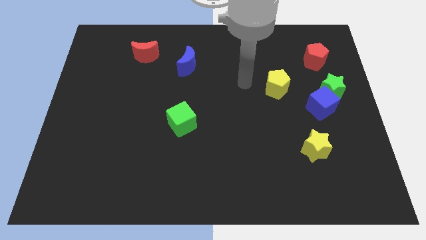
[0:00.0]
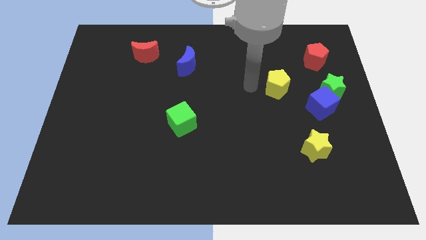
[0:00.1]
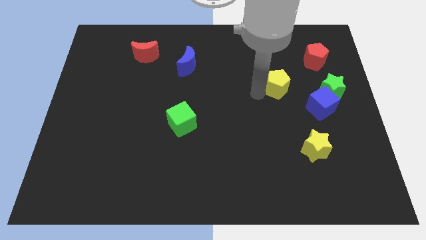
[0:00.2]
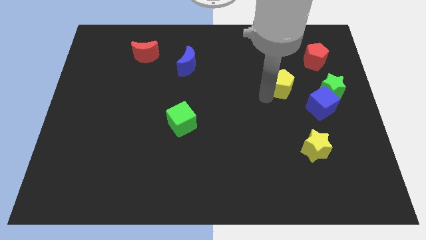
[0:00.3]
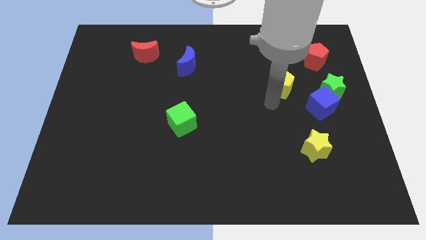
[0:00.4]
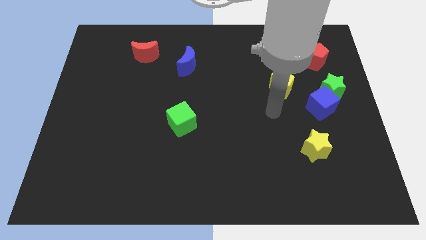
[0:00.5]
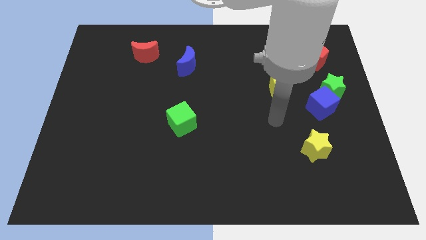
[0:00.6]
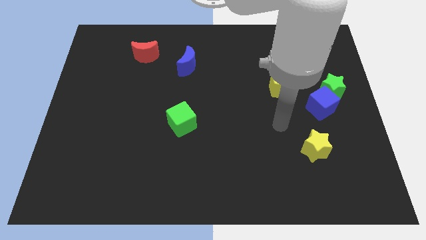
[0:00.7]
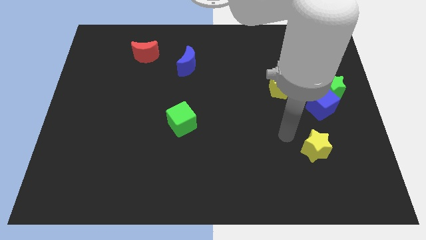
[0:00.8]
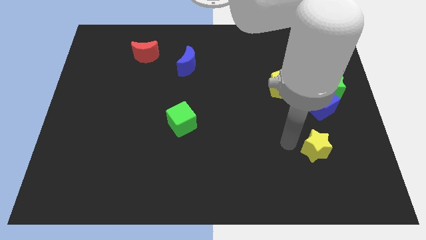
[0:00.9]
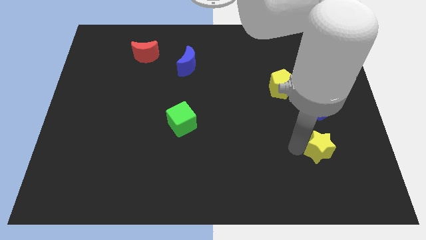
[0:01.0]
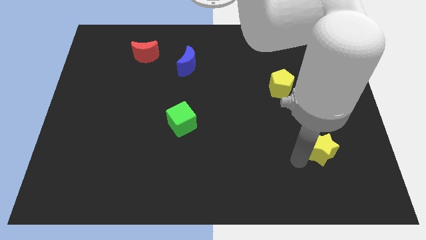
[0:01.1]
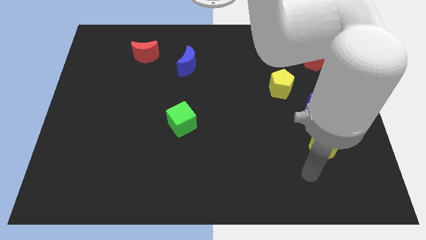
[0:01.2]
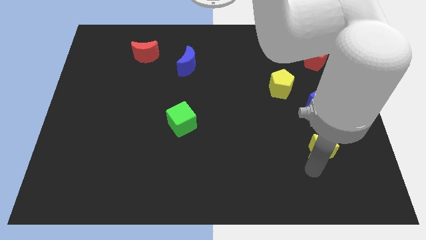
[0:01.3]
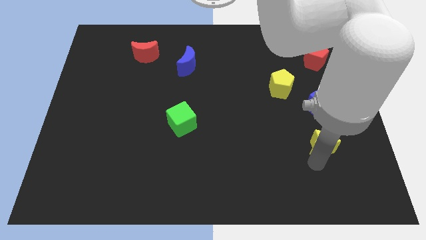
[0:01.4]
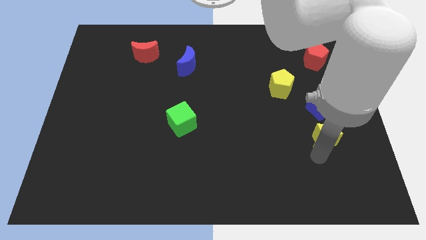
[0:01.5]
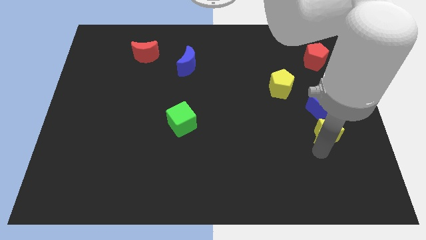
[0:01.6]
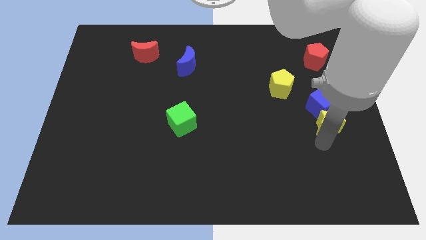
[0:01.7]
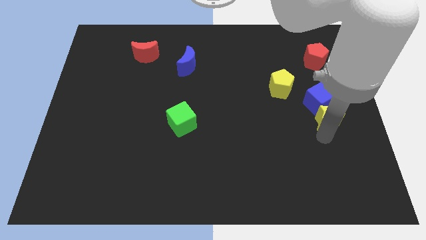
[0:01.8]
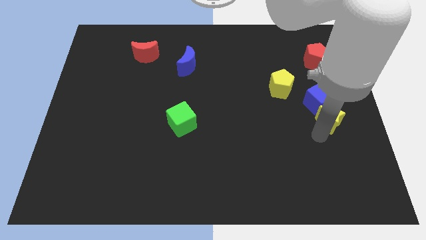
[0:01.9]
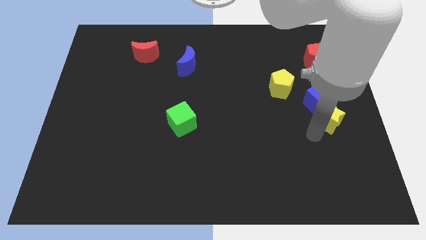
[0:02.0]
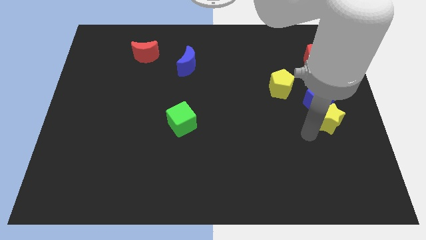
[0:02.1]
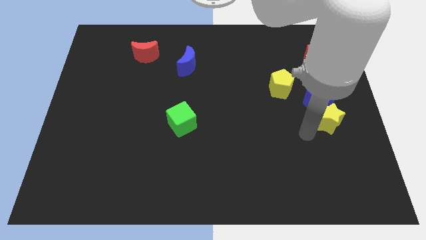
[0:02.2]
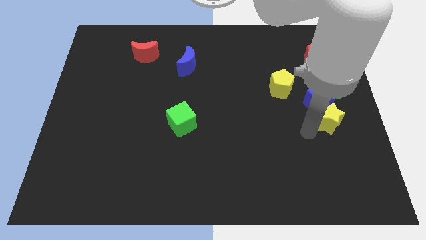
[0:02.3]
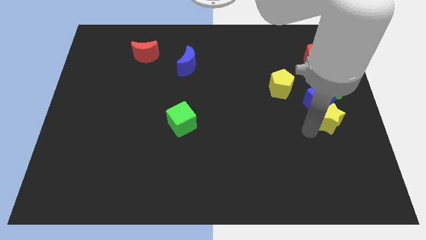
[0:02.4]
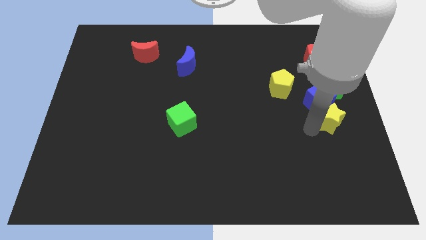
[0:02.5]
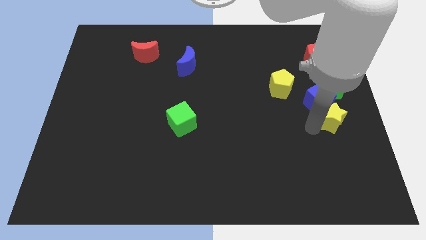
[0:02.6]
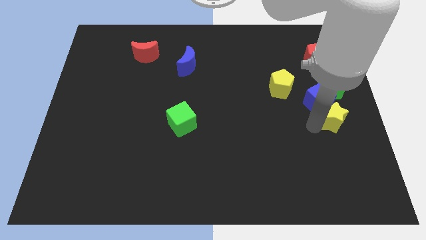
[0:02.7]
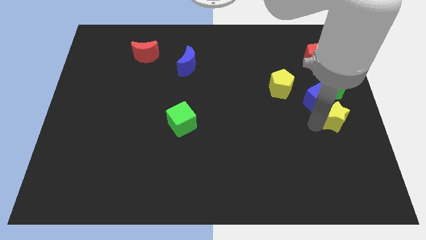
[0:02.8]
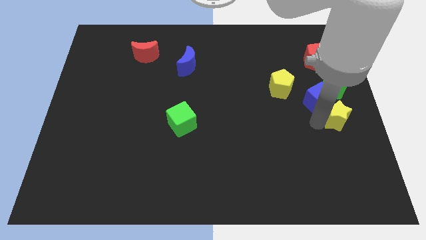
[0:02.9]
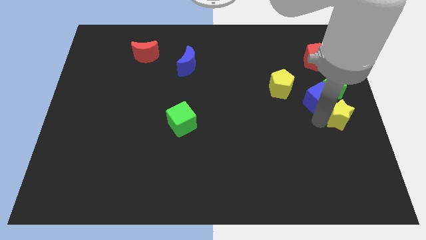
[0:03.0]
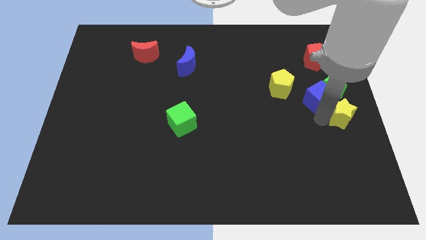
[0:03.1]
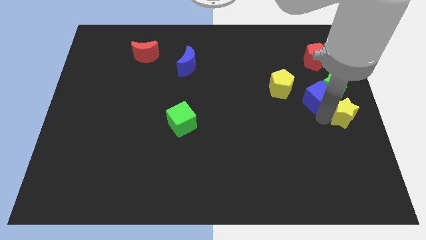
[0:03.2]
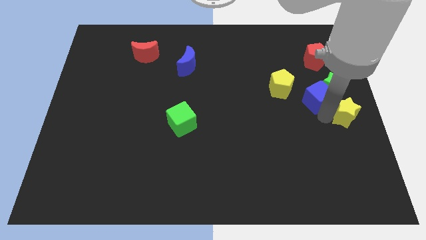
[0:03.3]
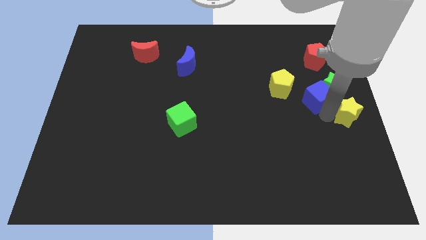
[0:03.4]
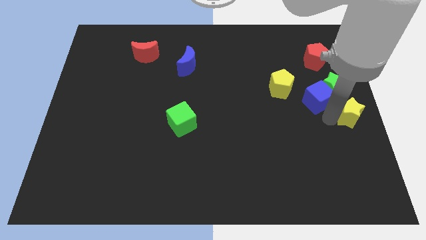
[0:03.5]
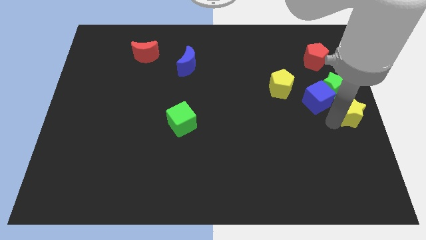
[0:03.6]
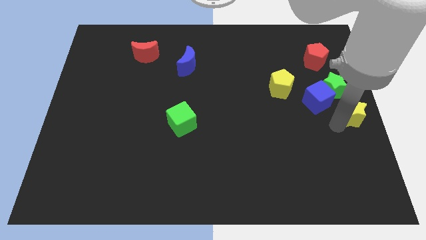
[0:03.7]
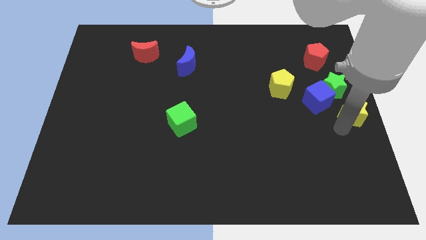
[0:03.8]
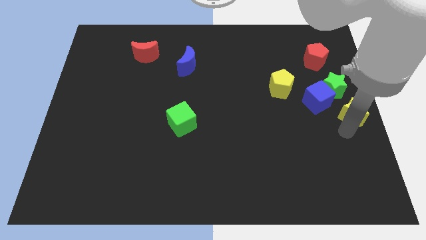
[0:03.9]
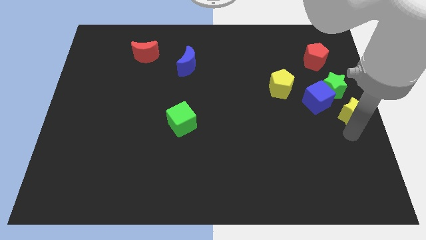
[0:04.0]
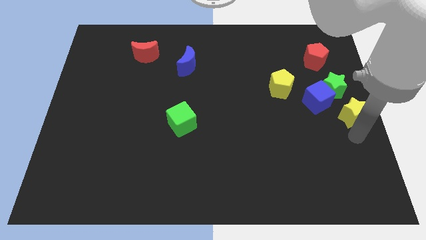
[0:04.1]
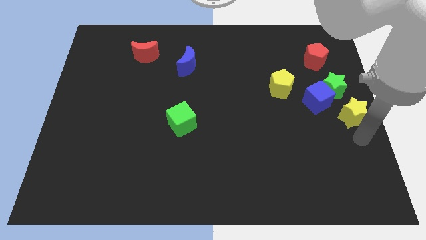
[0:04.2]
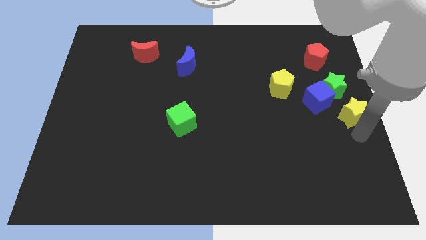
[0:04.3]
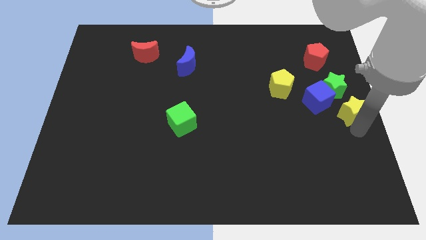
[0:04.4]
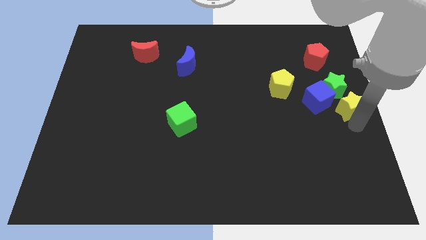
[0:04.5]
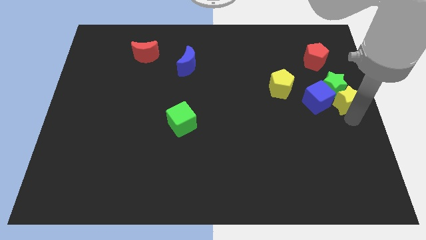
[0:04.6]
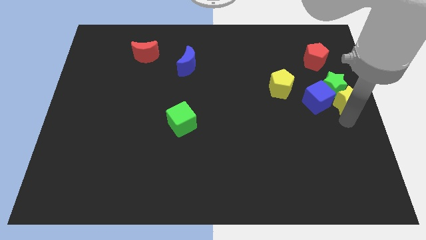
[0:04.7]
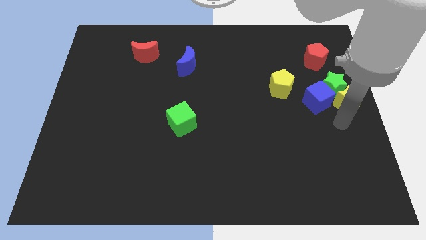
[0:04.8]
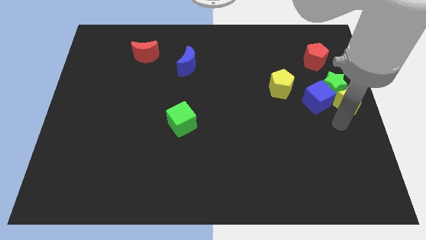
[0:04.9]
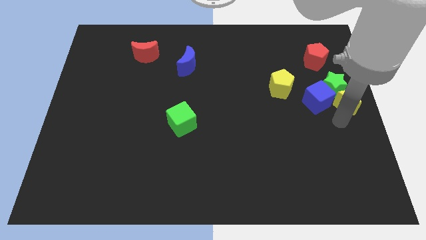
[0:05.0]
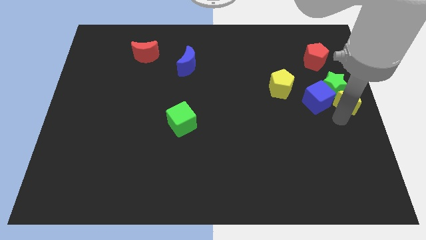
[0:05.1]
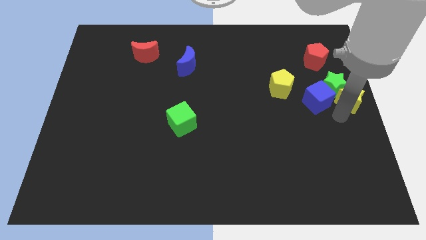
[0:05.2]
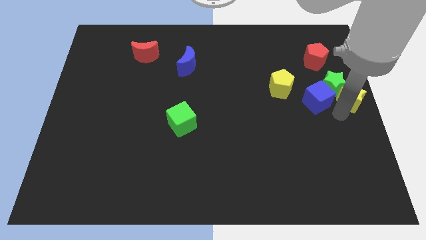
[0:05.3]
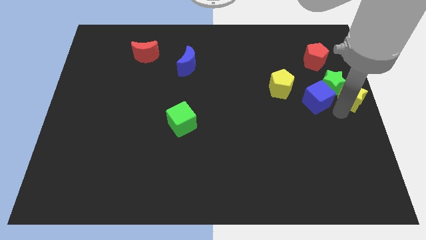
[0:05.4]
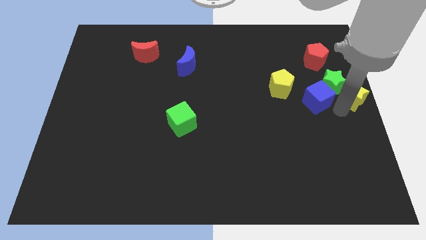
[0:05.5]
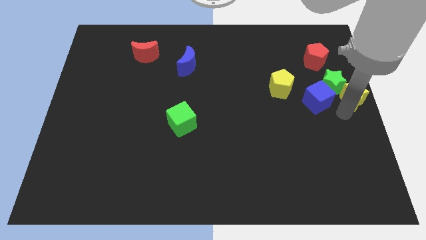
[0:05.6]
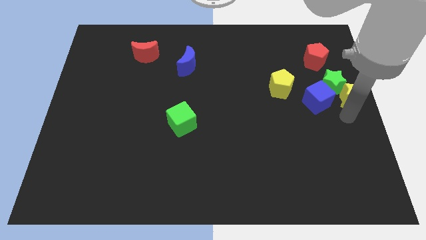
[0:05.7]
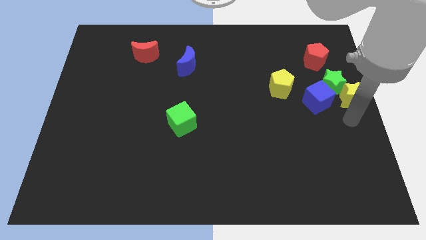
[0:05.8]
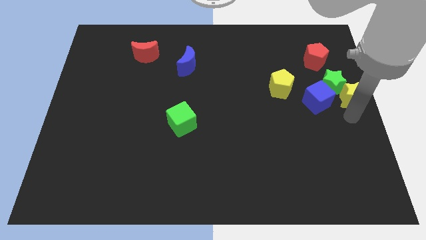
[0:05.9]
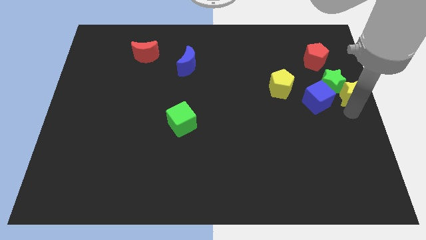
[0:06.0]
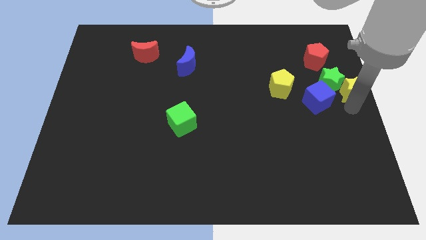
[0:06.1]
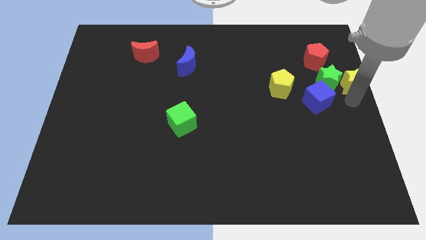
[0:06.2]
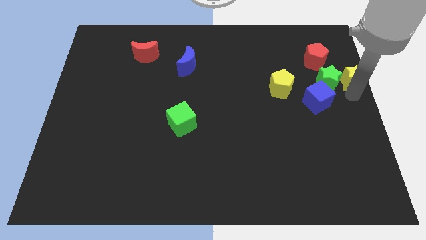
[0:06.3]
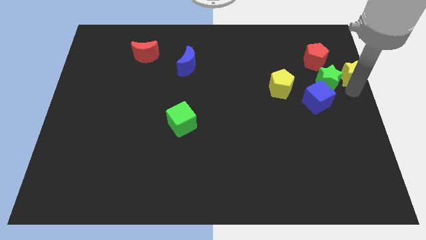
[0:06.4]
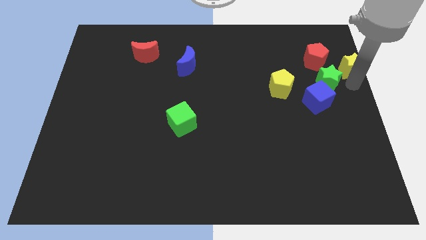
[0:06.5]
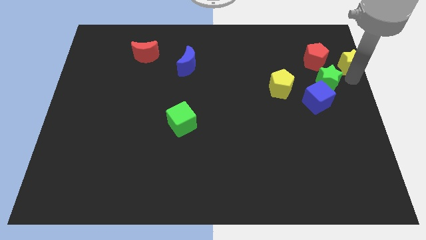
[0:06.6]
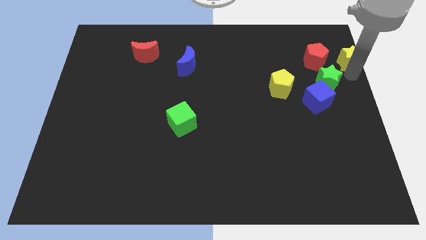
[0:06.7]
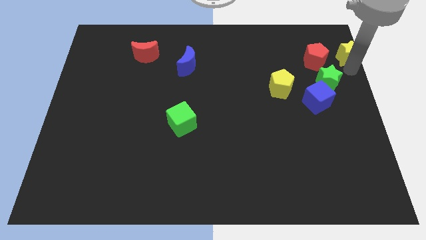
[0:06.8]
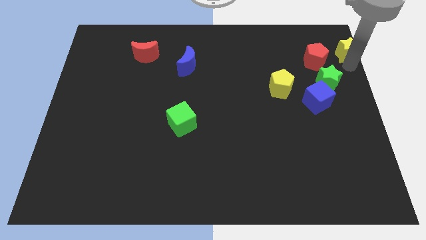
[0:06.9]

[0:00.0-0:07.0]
slide the yellow star to the top right corner
